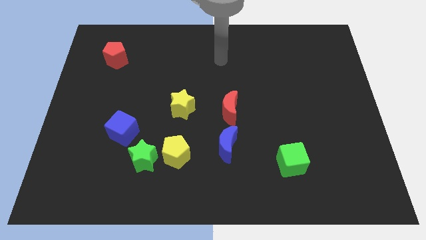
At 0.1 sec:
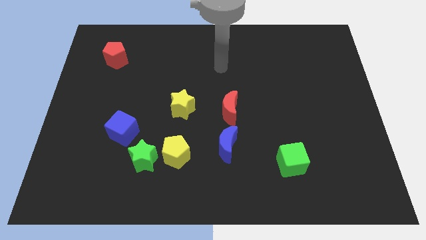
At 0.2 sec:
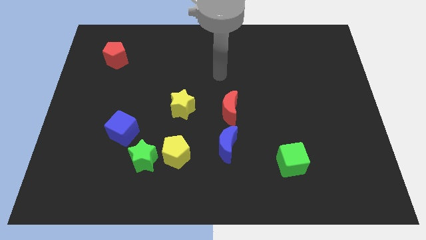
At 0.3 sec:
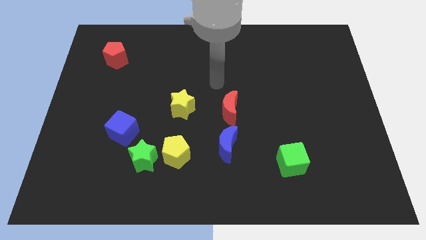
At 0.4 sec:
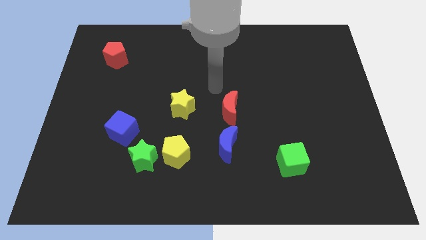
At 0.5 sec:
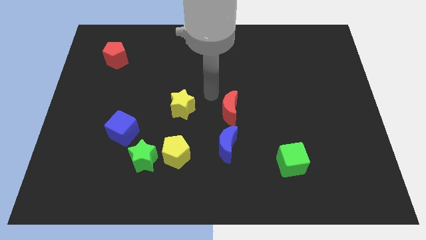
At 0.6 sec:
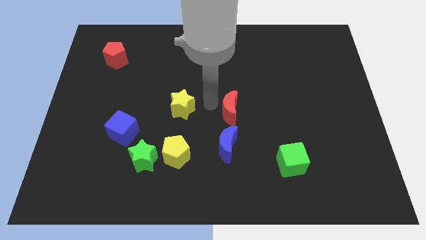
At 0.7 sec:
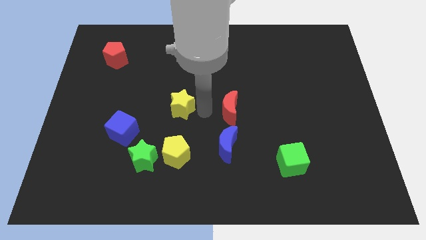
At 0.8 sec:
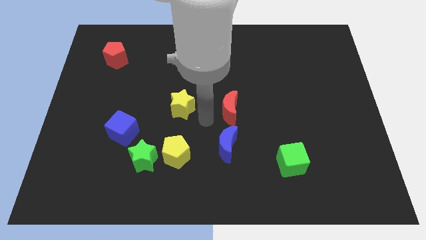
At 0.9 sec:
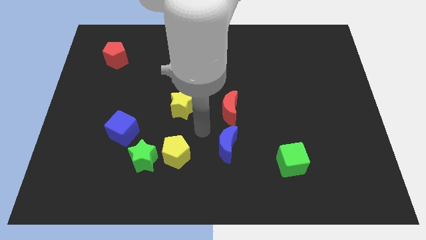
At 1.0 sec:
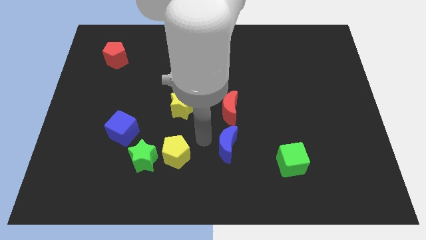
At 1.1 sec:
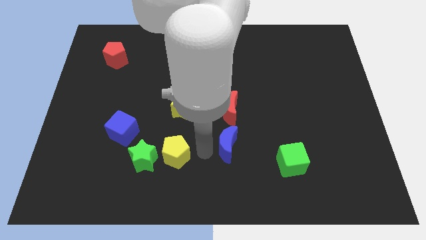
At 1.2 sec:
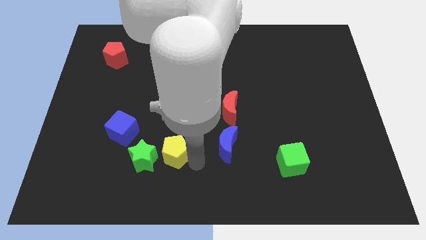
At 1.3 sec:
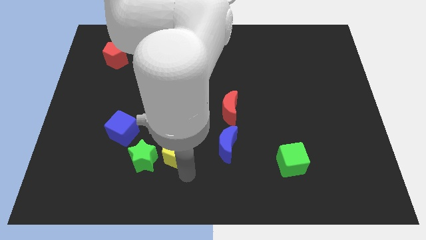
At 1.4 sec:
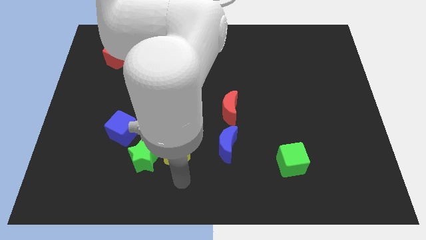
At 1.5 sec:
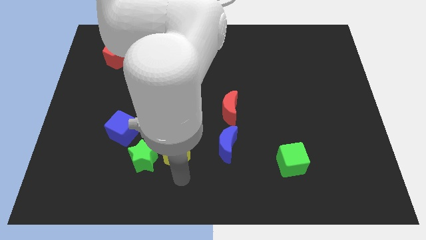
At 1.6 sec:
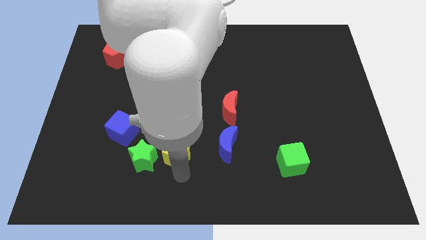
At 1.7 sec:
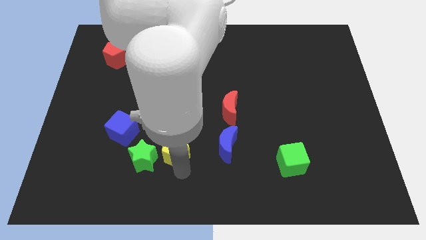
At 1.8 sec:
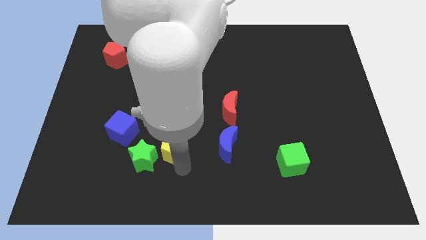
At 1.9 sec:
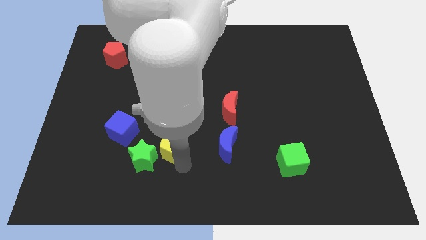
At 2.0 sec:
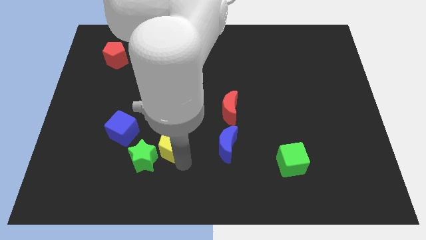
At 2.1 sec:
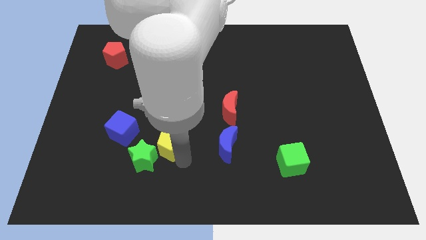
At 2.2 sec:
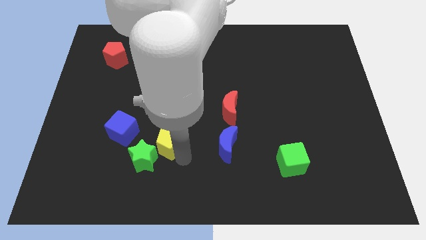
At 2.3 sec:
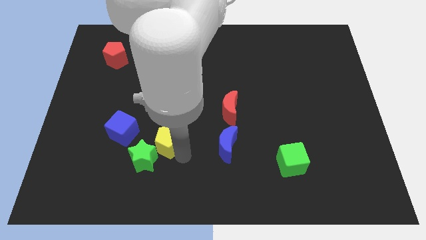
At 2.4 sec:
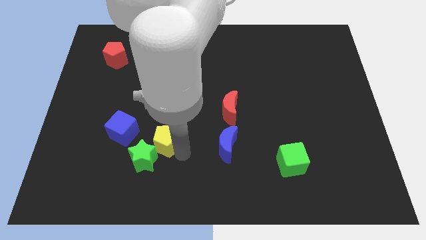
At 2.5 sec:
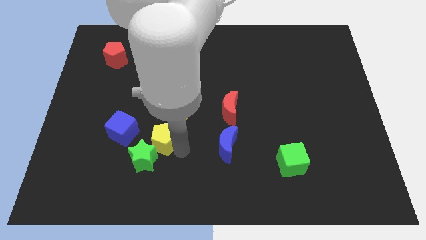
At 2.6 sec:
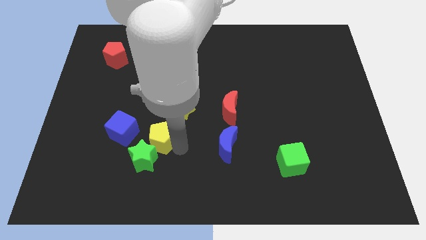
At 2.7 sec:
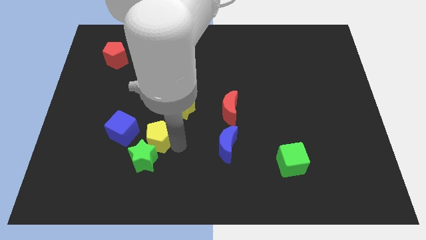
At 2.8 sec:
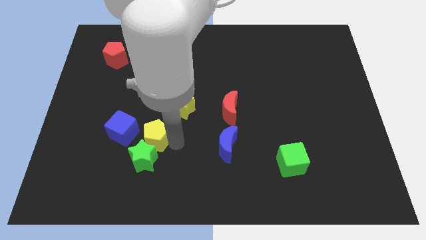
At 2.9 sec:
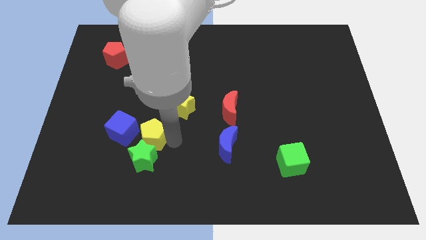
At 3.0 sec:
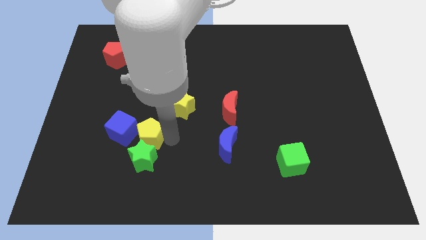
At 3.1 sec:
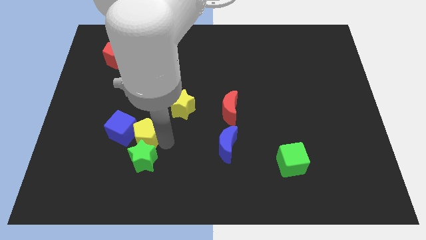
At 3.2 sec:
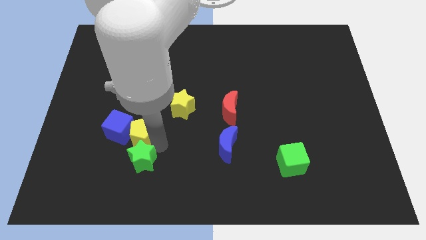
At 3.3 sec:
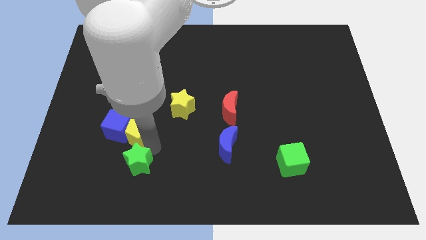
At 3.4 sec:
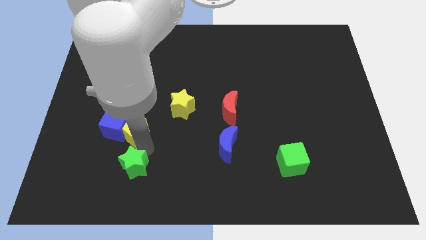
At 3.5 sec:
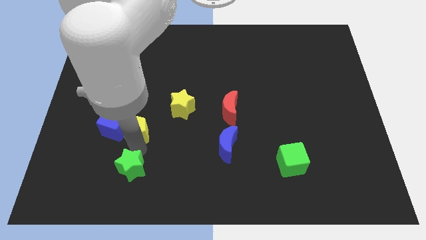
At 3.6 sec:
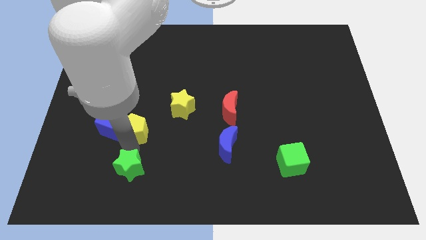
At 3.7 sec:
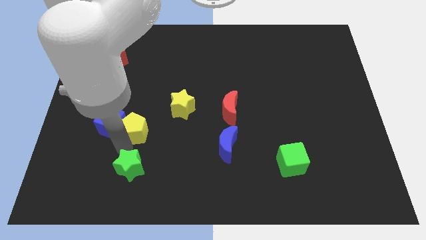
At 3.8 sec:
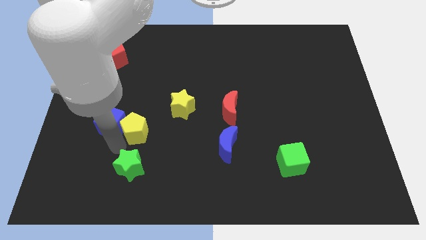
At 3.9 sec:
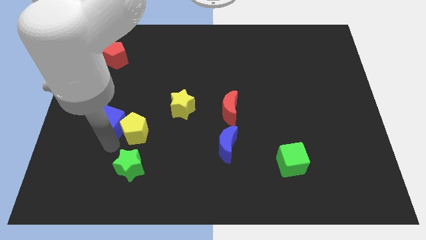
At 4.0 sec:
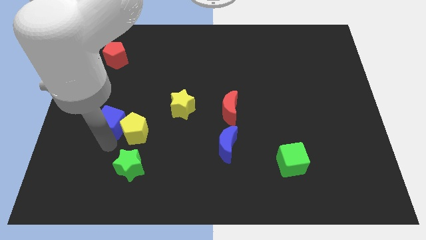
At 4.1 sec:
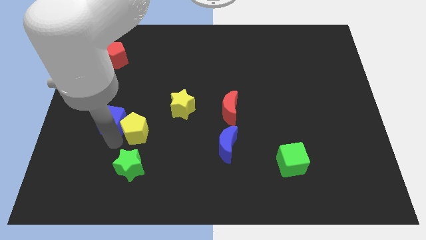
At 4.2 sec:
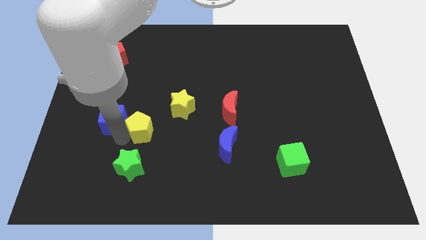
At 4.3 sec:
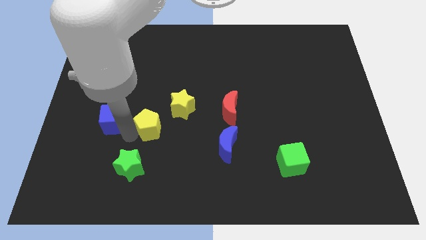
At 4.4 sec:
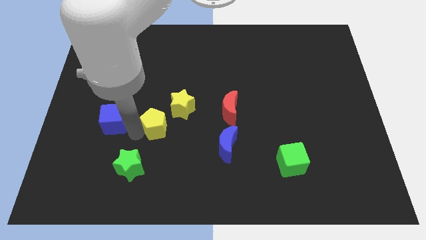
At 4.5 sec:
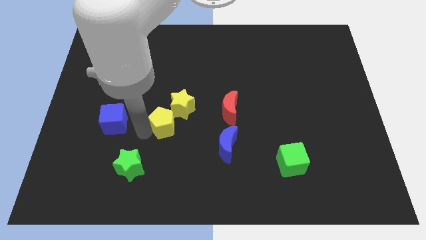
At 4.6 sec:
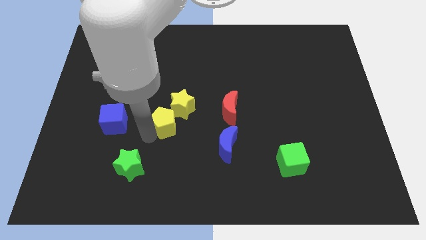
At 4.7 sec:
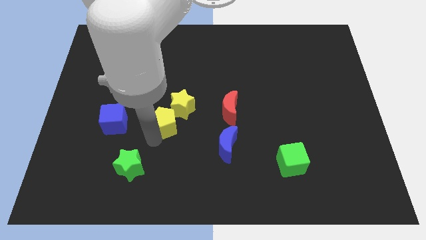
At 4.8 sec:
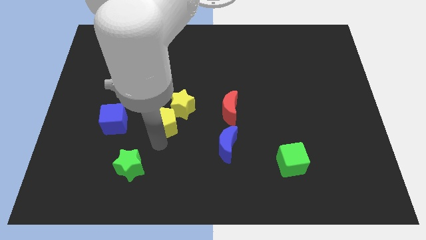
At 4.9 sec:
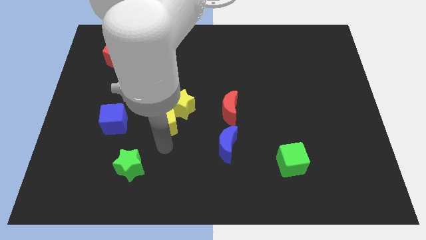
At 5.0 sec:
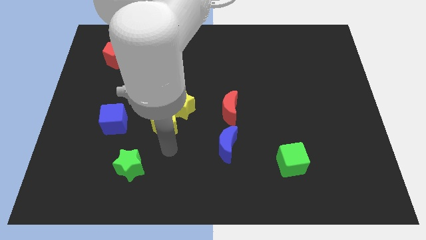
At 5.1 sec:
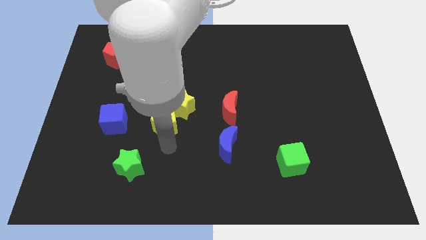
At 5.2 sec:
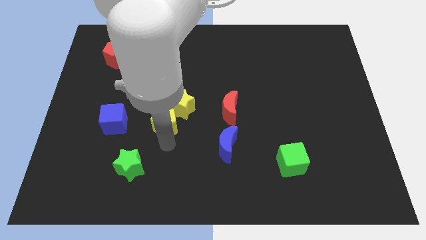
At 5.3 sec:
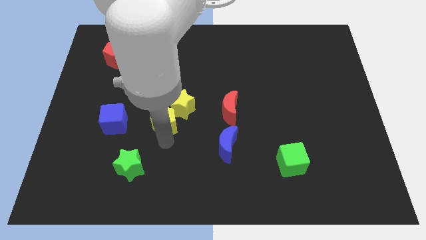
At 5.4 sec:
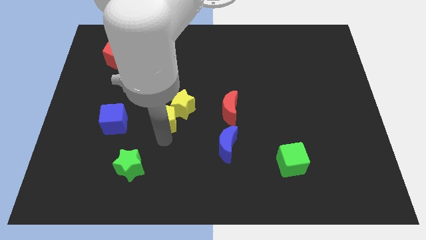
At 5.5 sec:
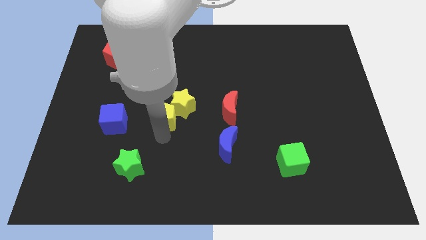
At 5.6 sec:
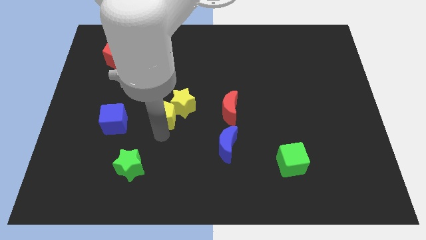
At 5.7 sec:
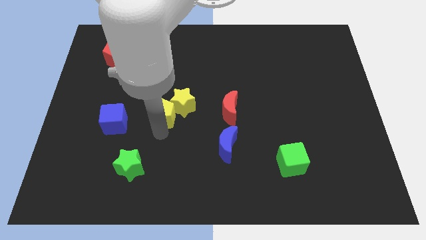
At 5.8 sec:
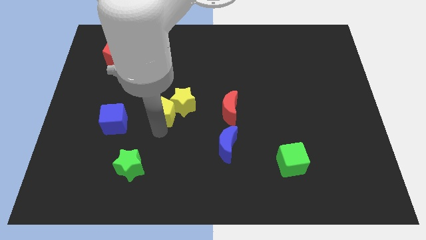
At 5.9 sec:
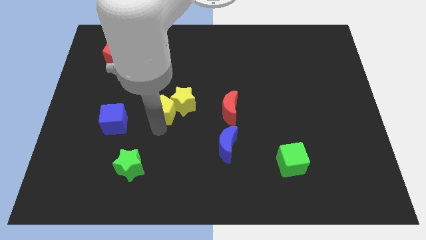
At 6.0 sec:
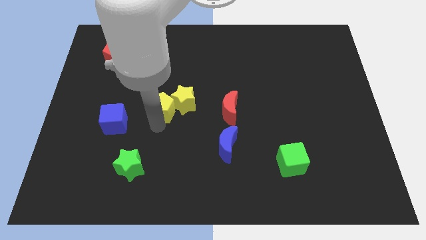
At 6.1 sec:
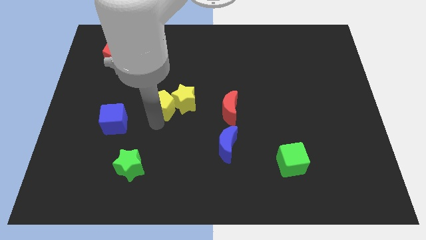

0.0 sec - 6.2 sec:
move the yellow pentagon diagonally up and to the left of the yellow star

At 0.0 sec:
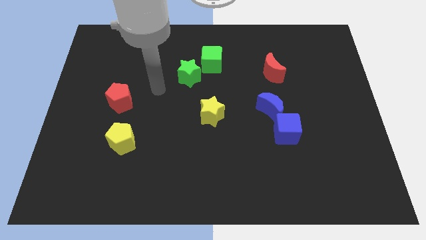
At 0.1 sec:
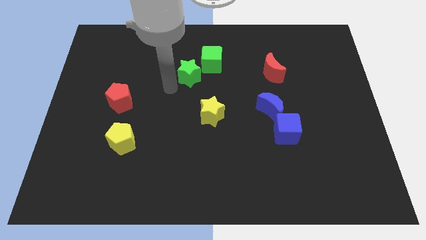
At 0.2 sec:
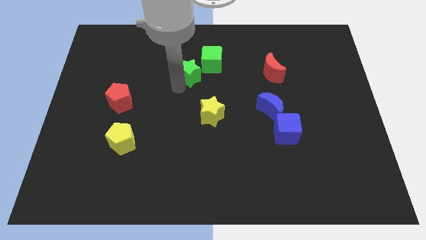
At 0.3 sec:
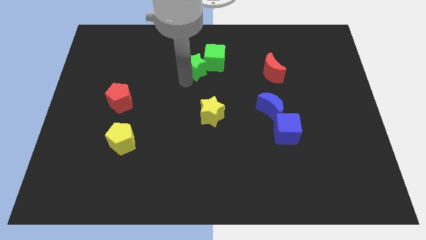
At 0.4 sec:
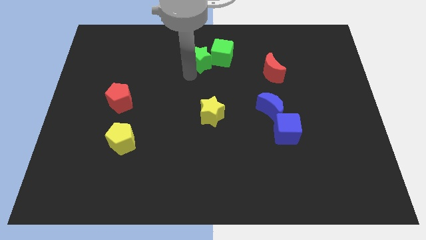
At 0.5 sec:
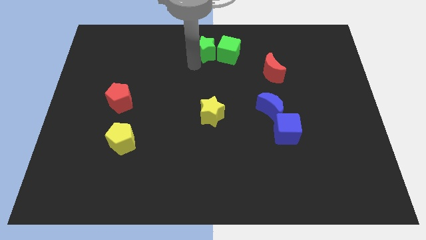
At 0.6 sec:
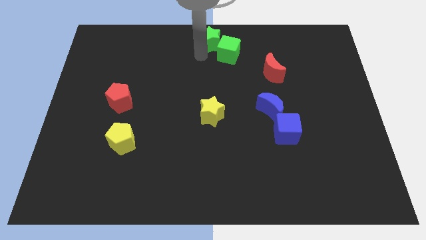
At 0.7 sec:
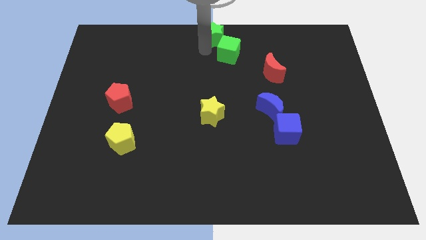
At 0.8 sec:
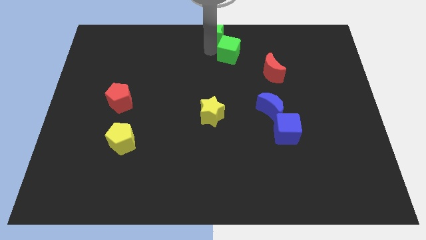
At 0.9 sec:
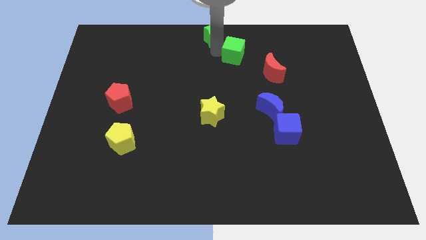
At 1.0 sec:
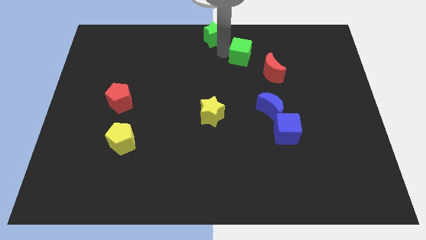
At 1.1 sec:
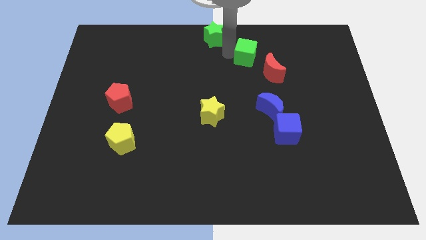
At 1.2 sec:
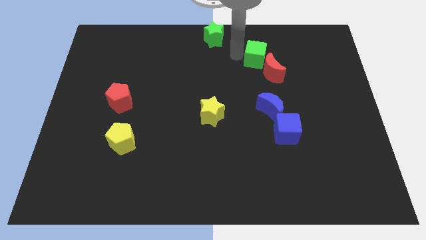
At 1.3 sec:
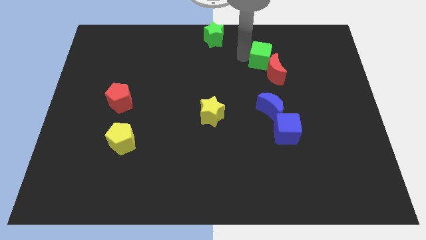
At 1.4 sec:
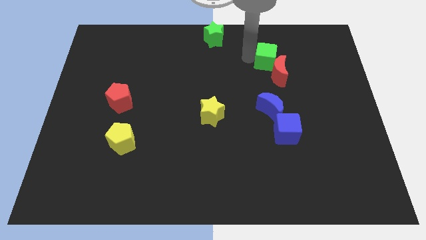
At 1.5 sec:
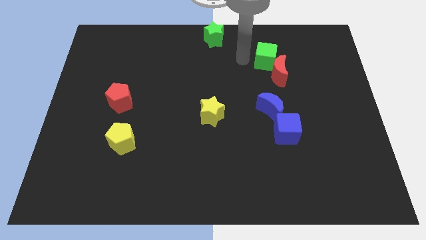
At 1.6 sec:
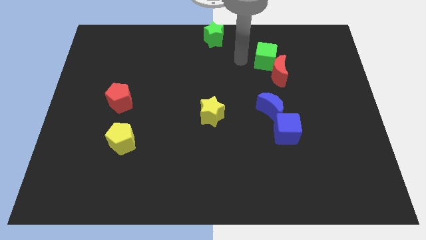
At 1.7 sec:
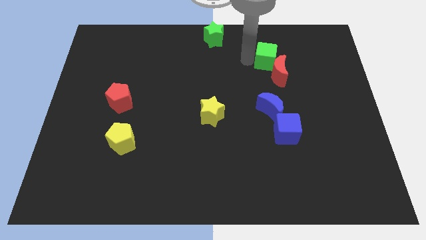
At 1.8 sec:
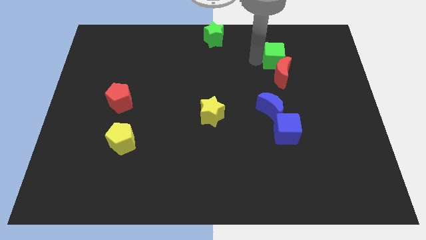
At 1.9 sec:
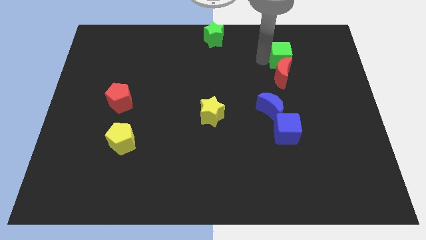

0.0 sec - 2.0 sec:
move the green cube diagonally up and to the right of the red moon
